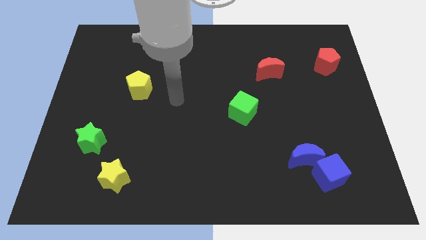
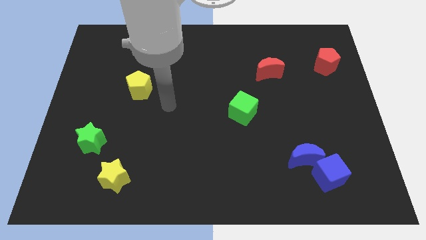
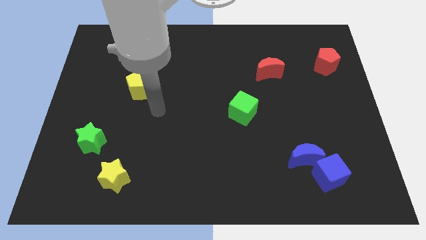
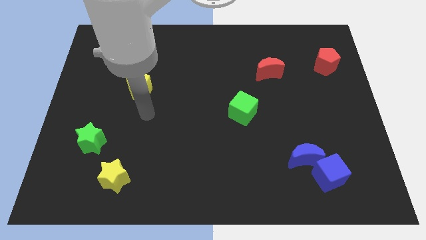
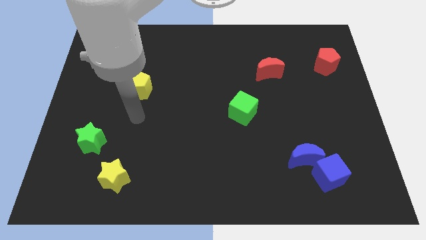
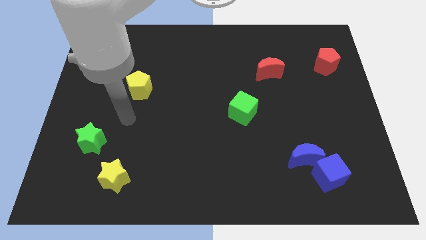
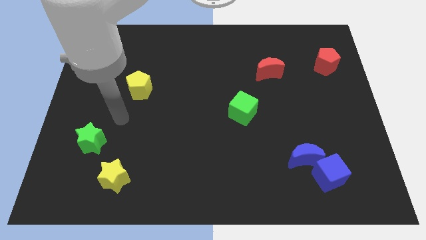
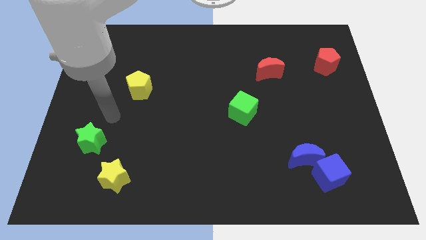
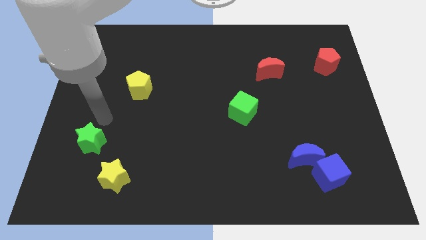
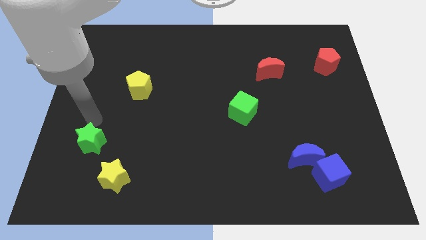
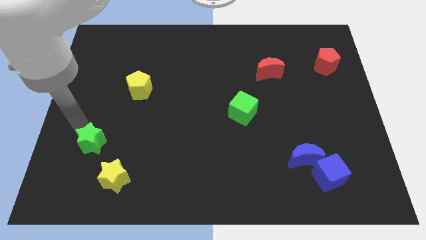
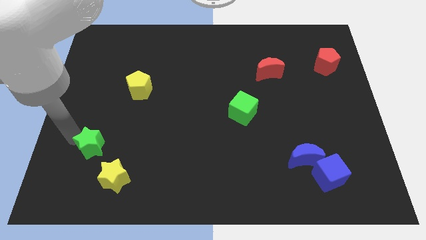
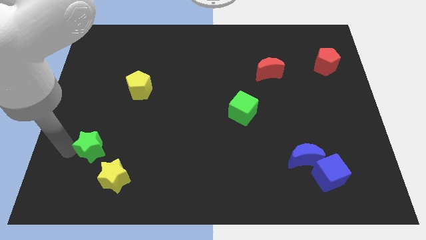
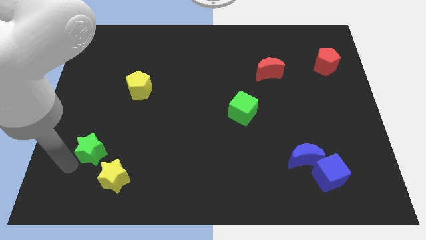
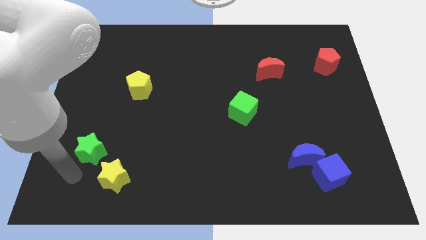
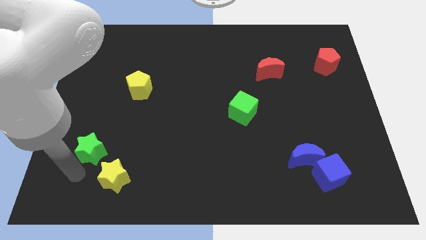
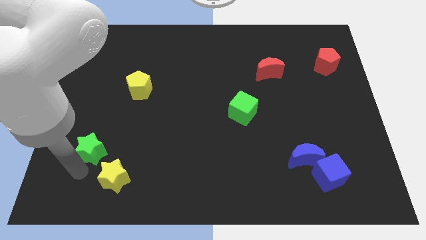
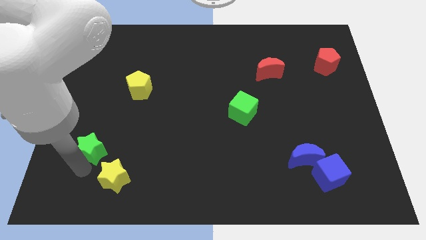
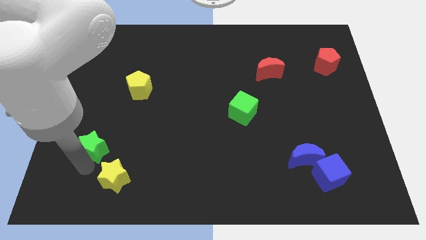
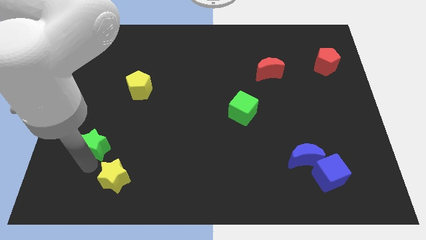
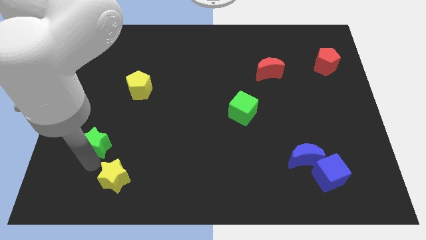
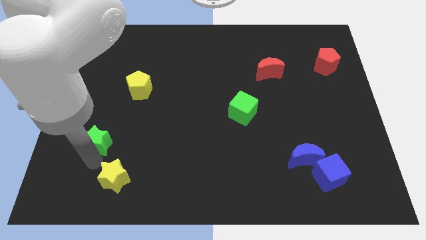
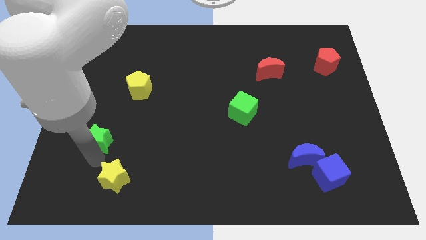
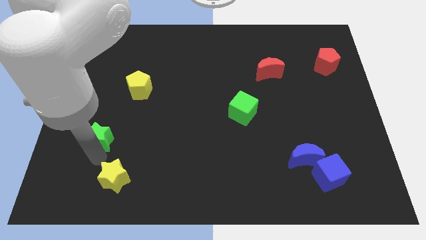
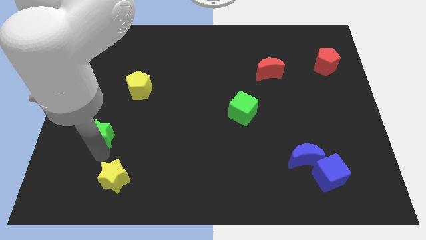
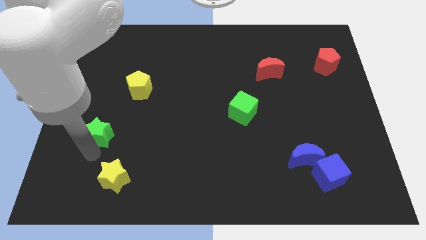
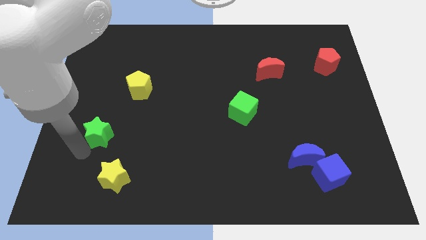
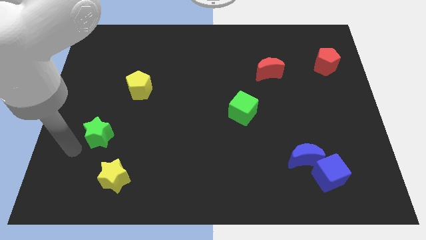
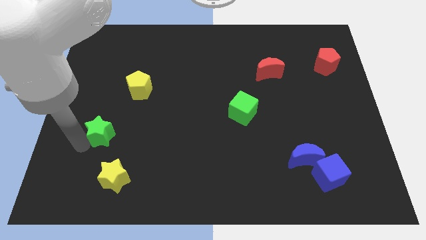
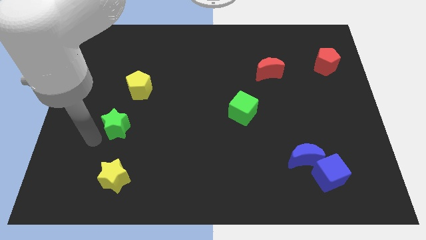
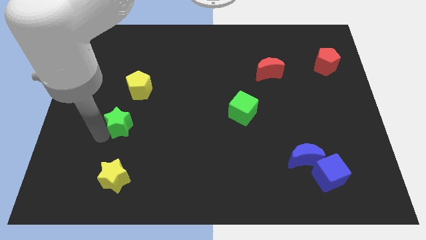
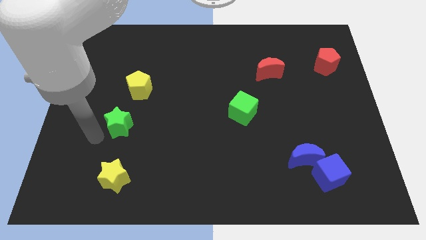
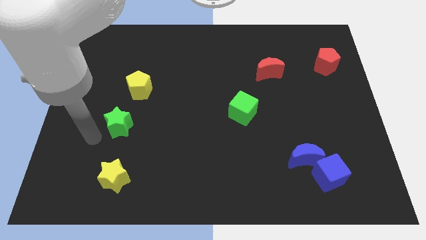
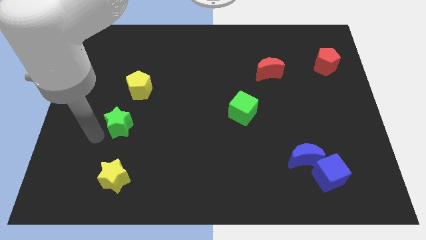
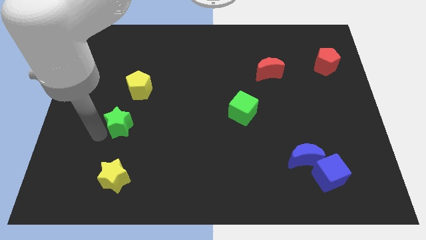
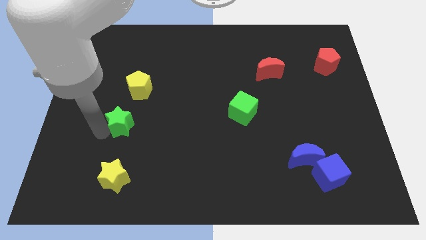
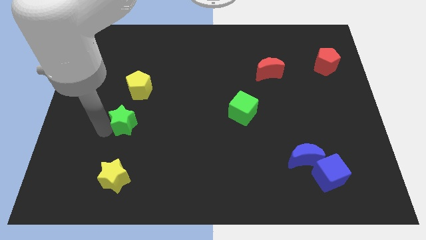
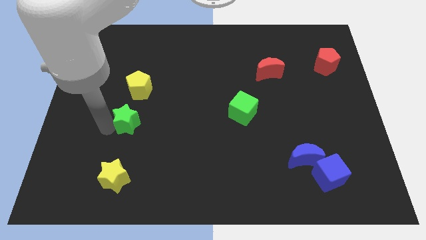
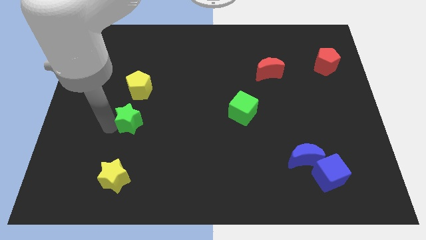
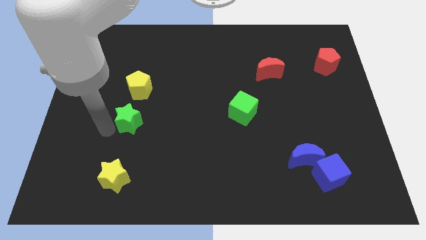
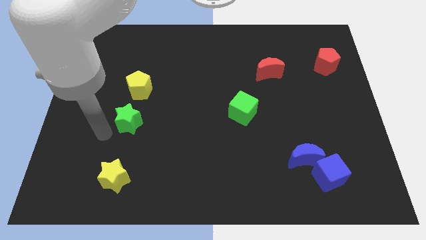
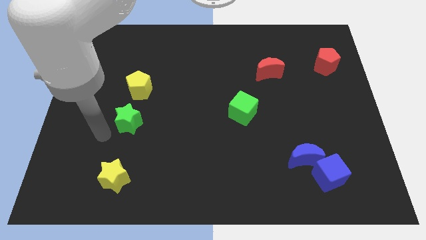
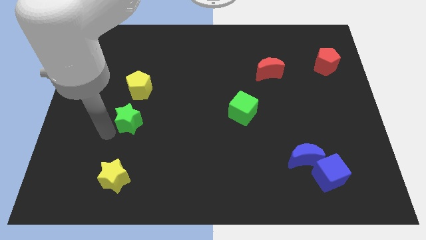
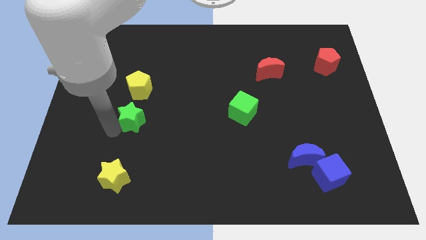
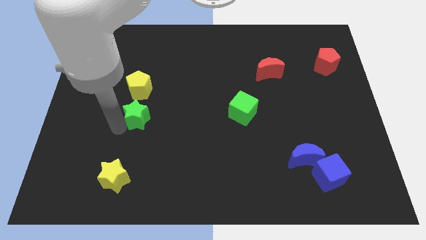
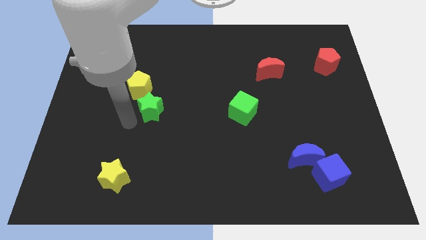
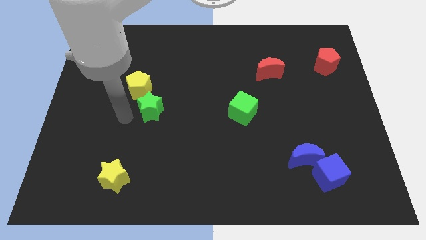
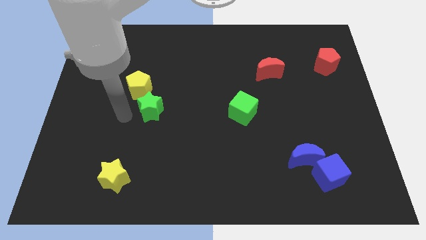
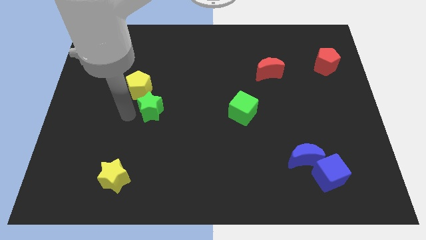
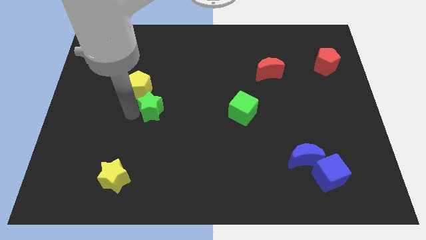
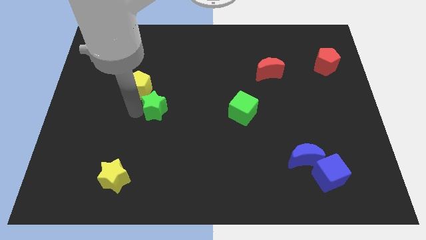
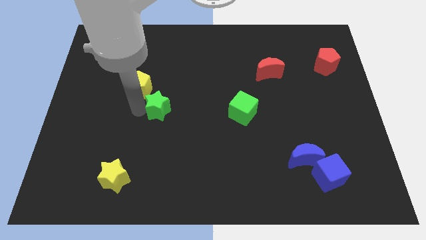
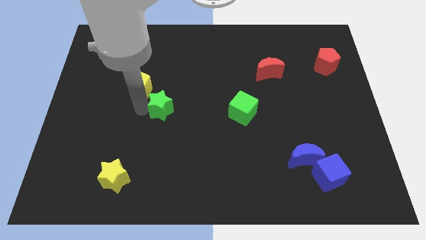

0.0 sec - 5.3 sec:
move the green star to the middle of the board

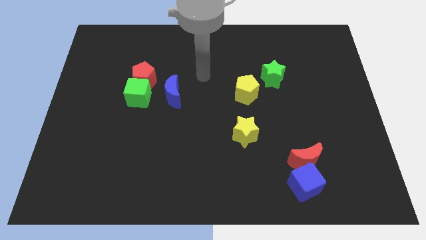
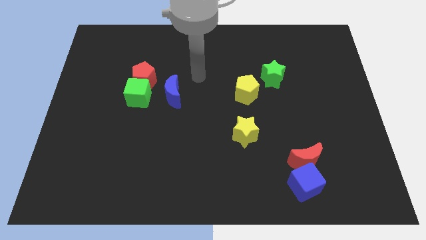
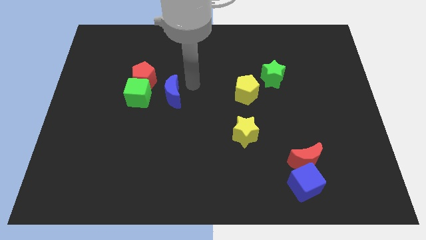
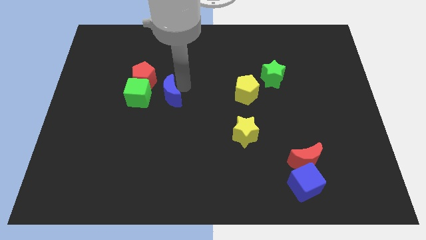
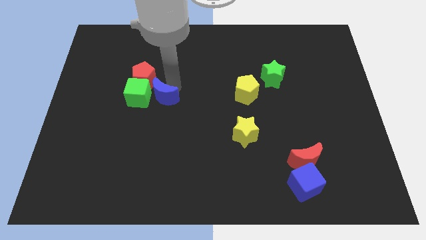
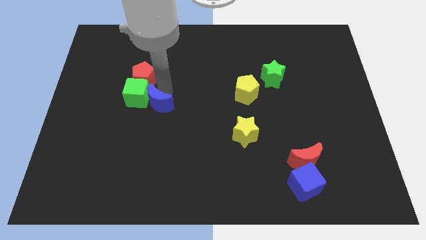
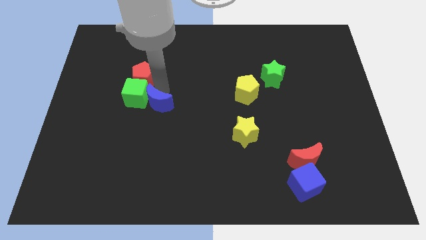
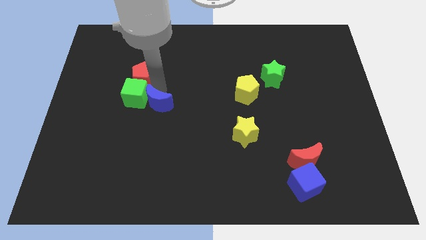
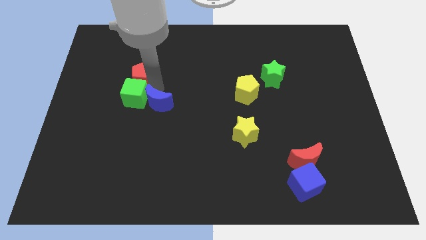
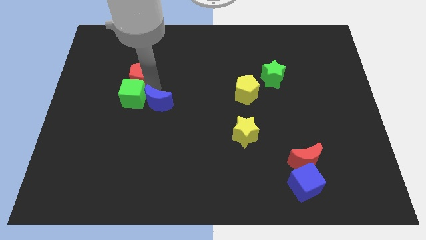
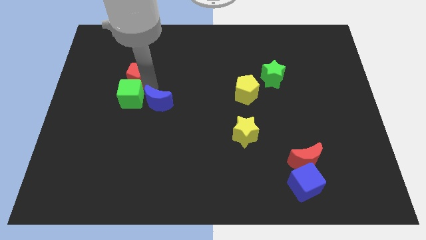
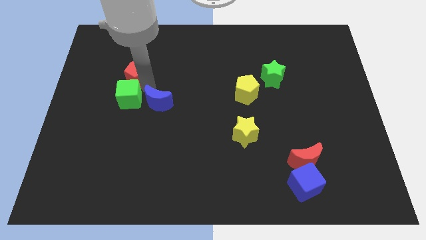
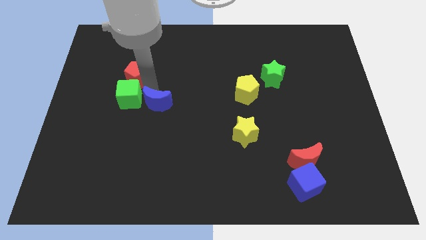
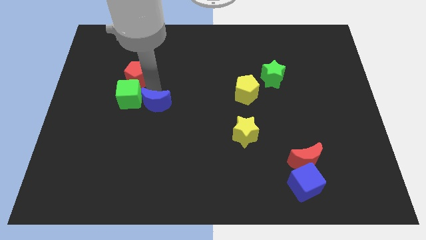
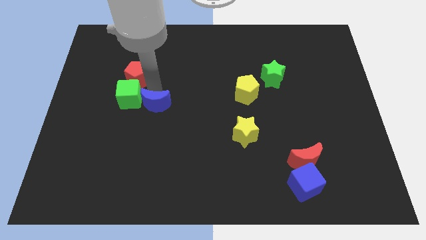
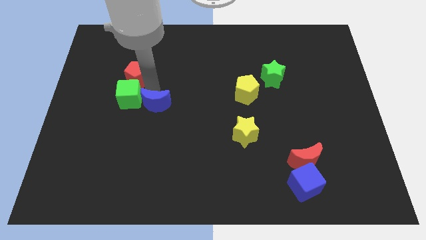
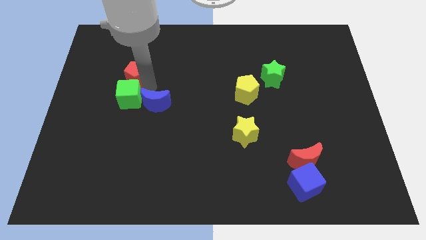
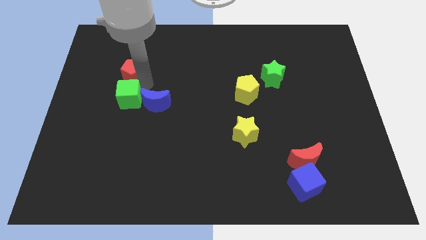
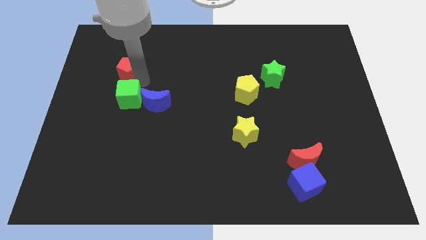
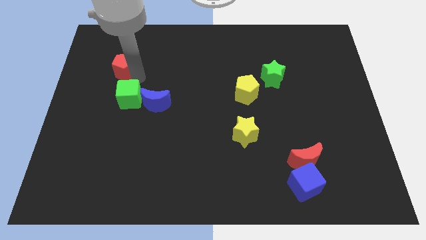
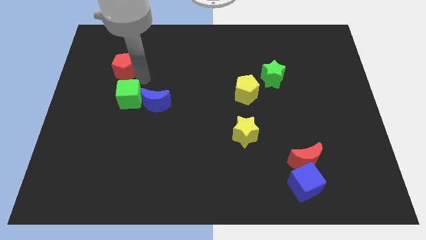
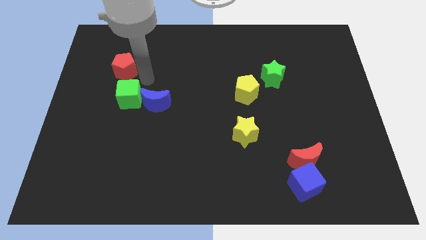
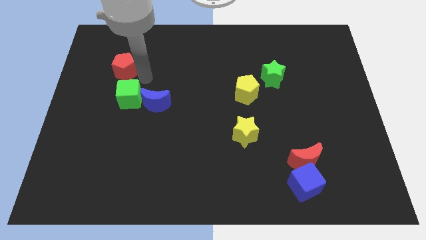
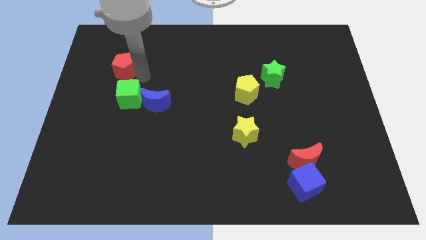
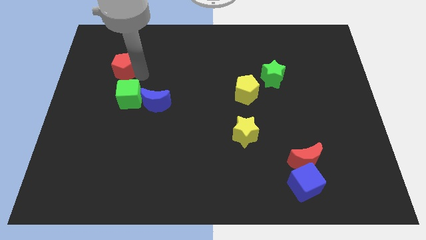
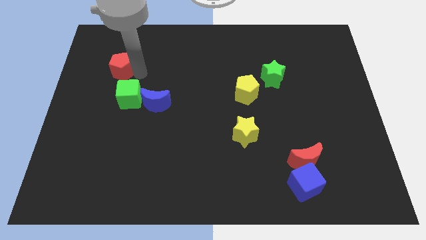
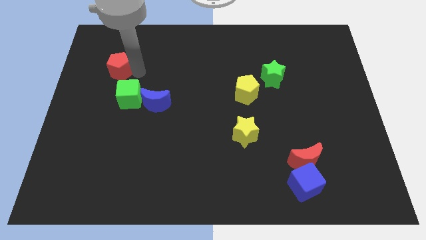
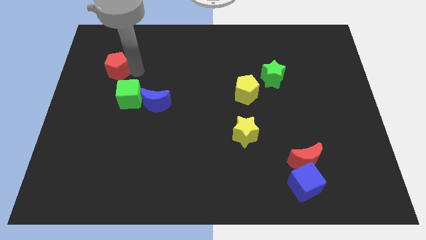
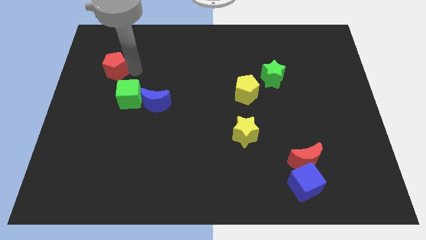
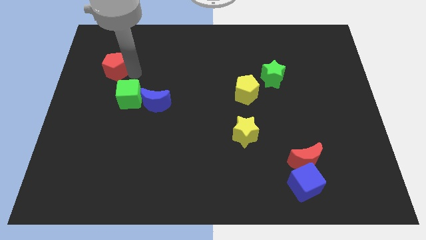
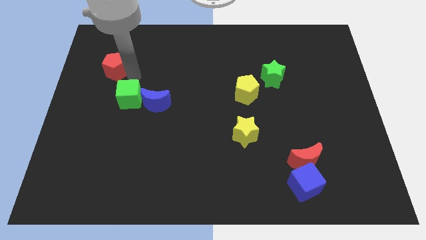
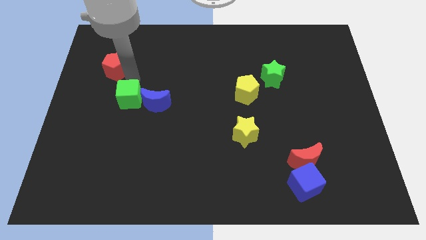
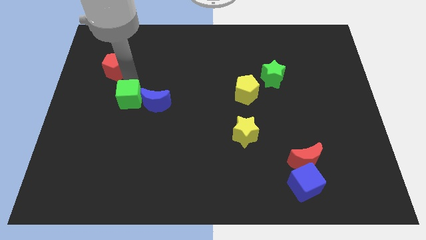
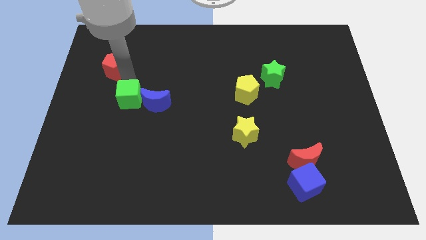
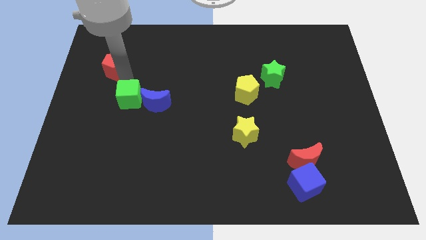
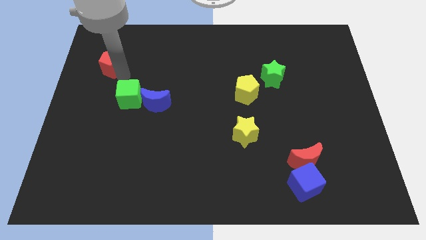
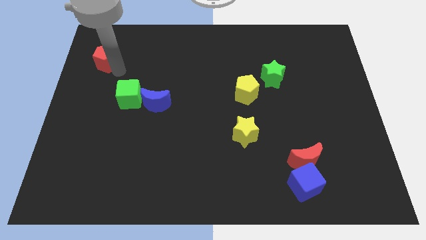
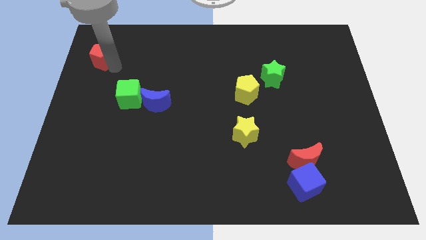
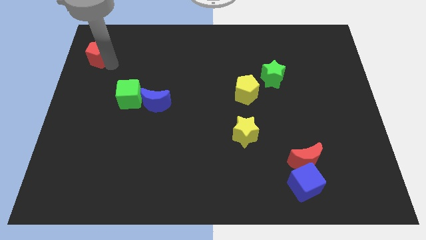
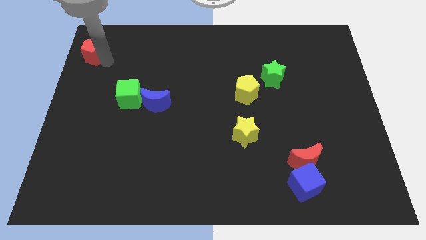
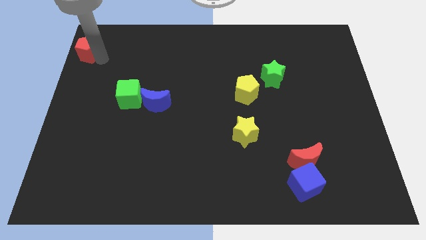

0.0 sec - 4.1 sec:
push the red pentagon to the top left
